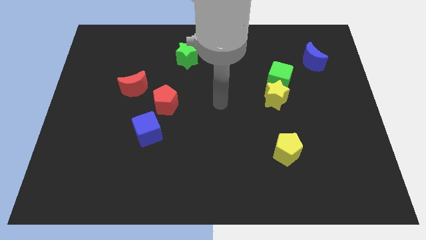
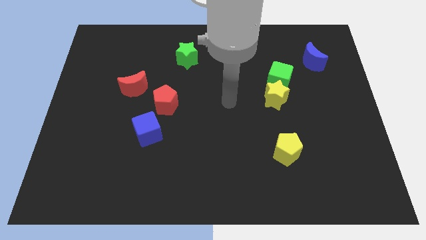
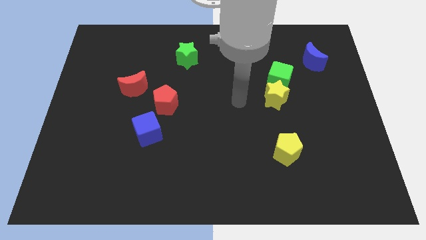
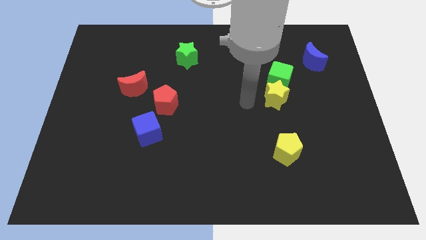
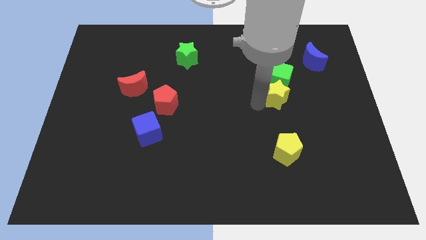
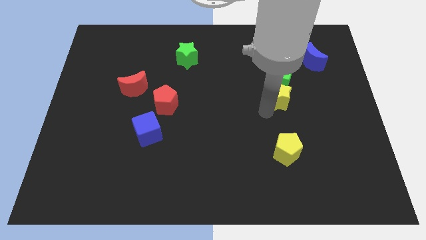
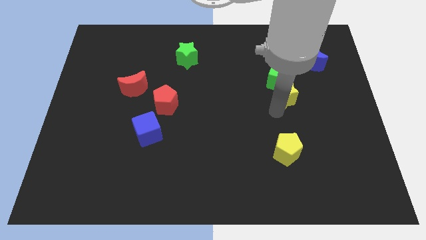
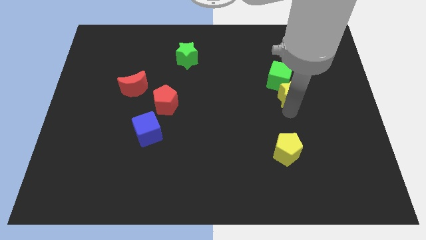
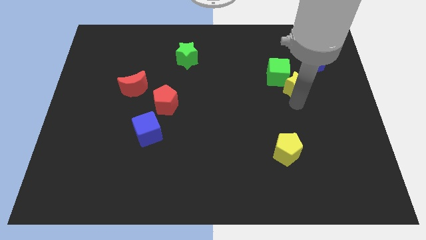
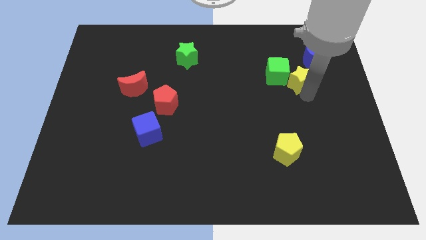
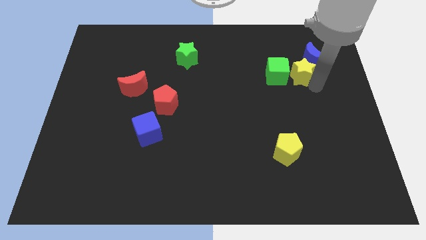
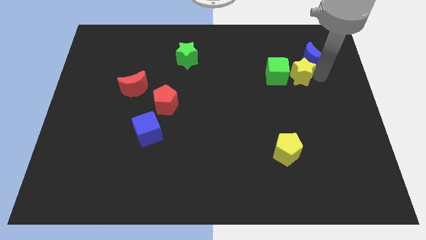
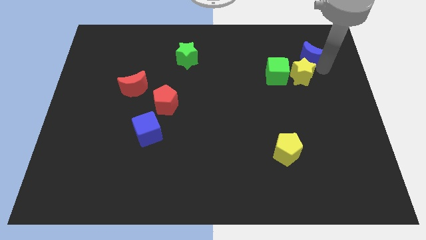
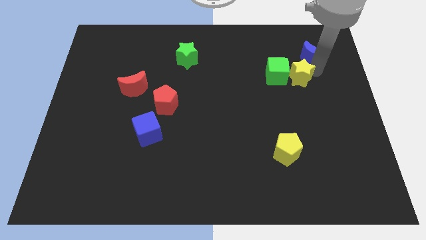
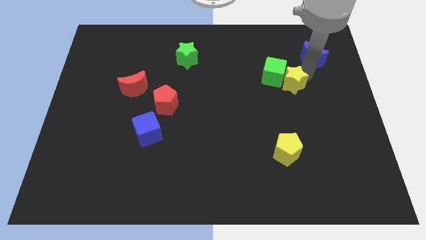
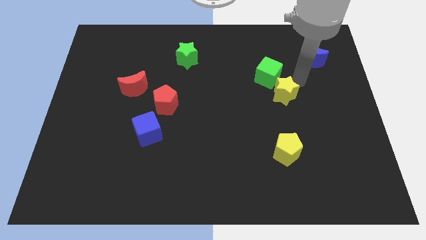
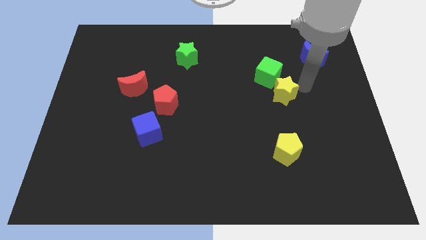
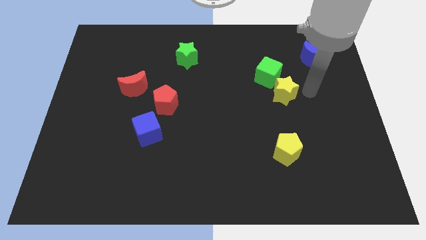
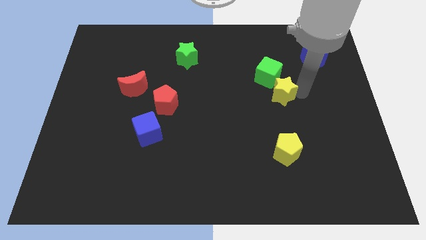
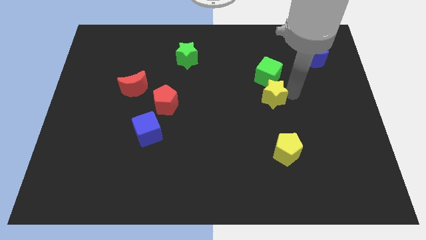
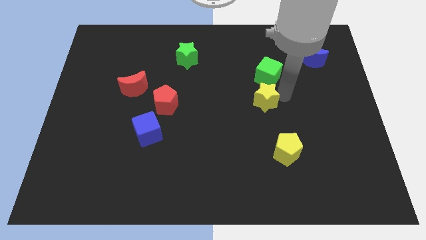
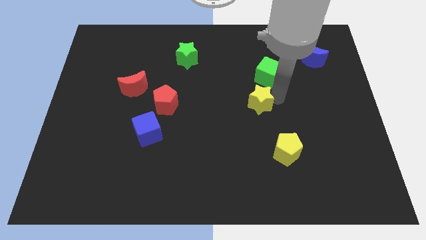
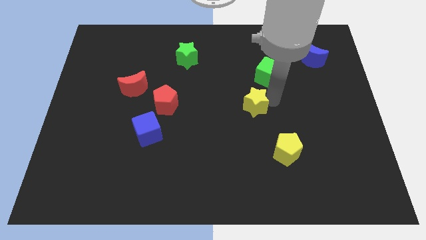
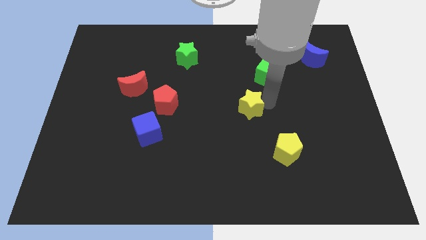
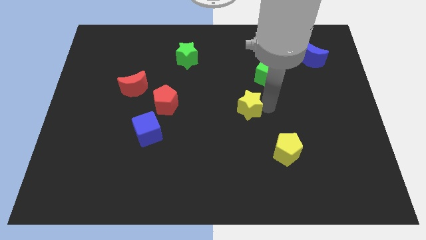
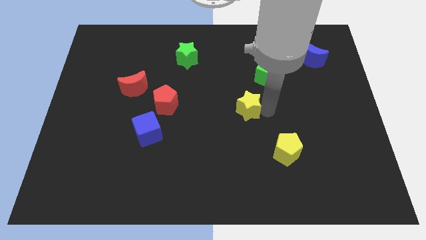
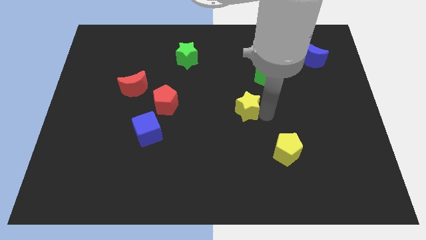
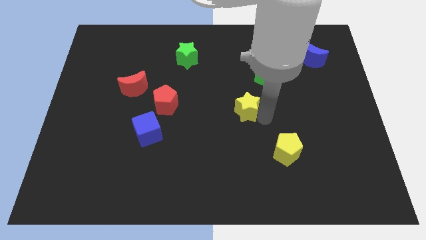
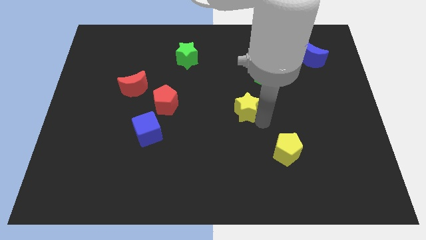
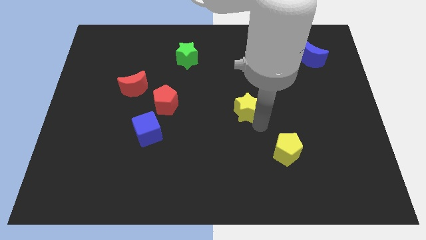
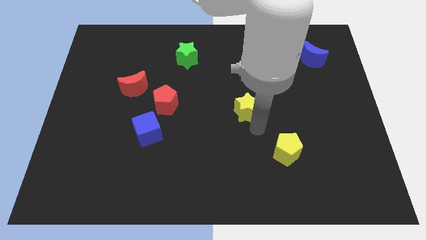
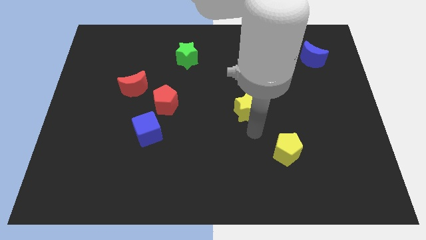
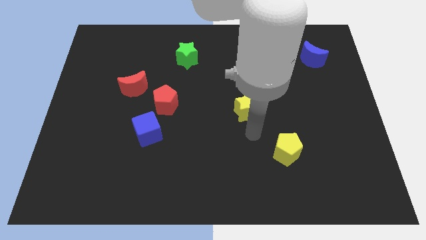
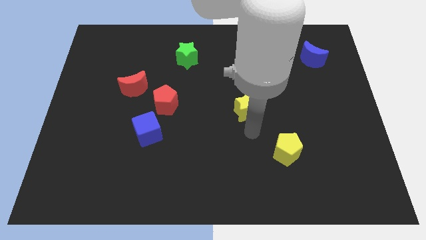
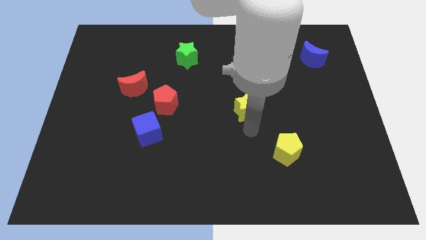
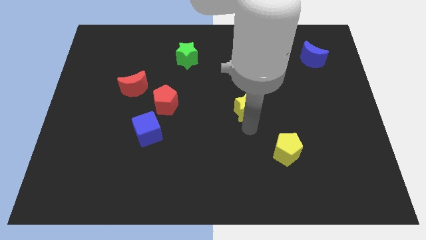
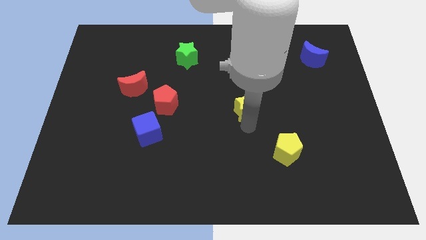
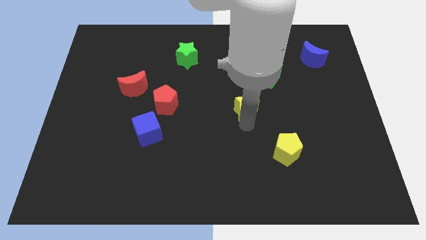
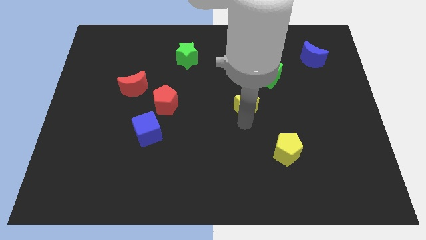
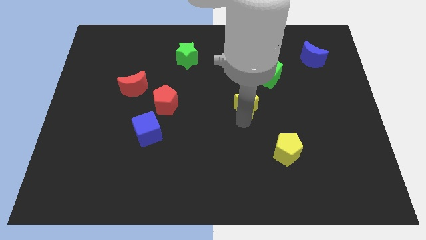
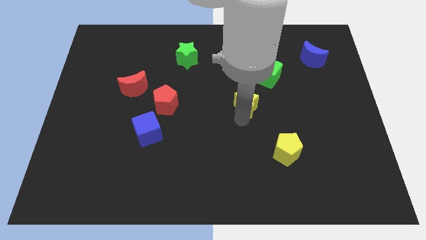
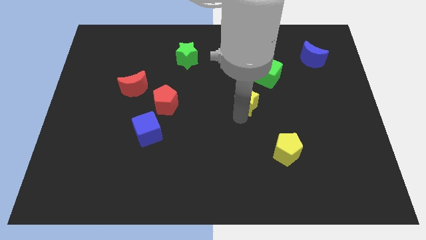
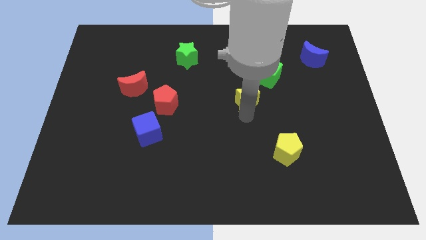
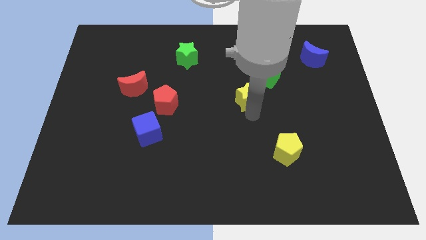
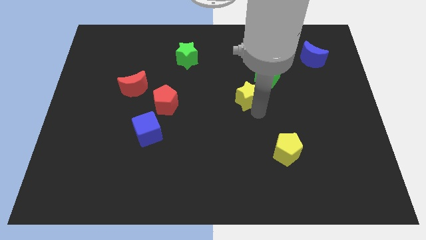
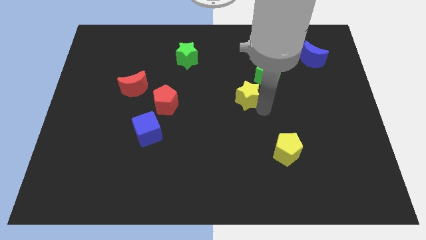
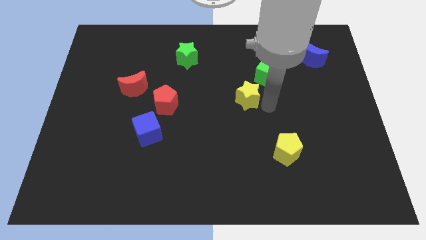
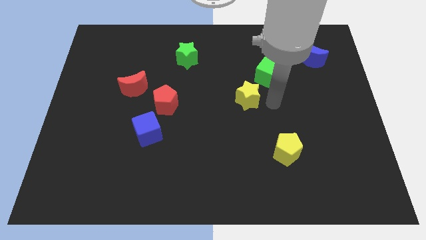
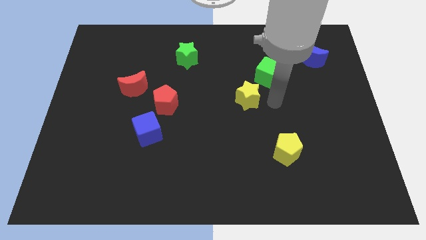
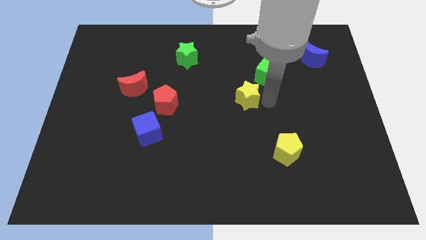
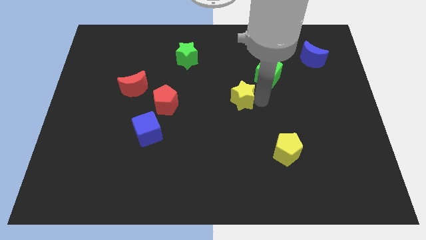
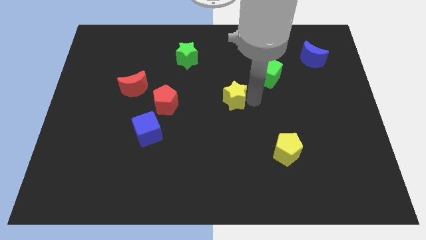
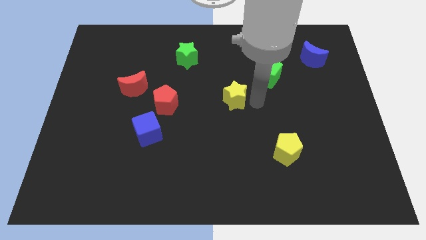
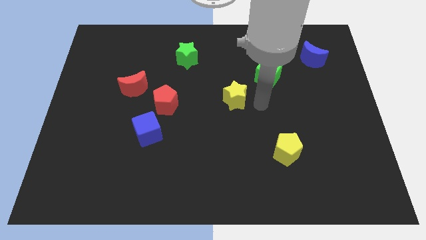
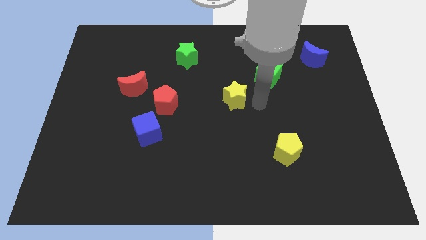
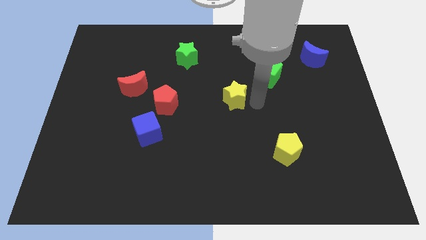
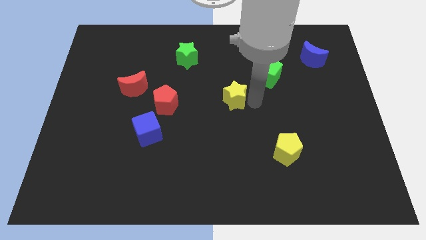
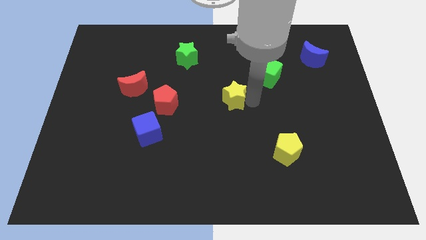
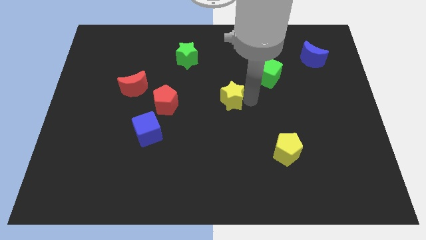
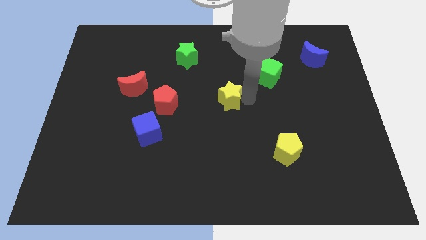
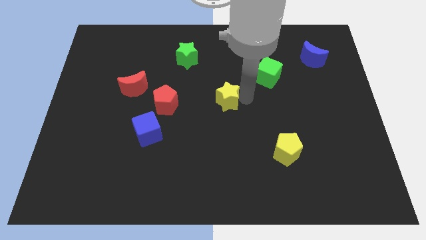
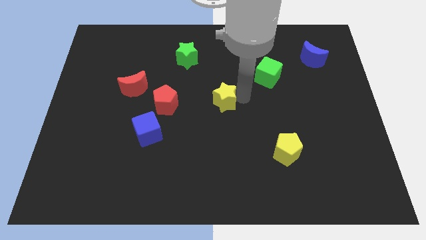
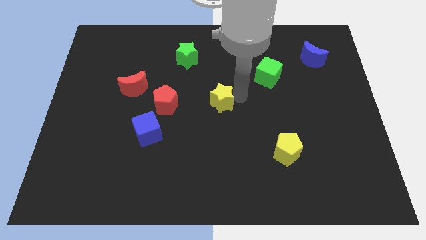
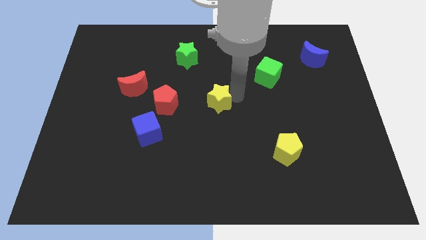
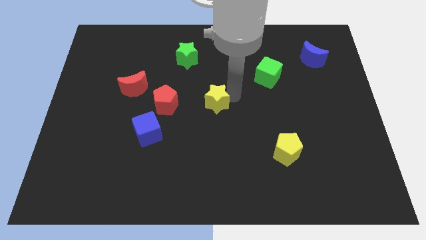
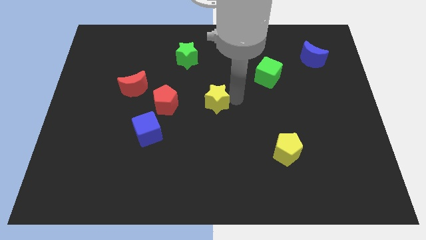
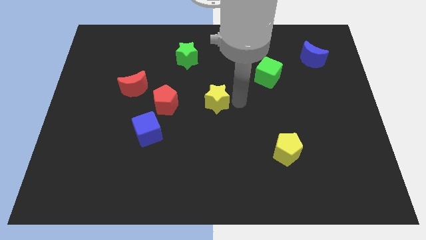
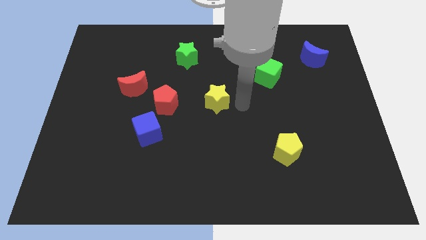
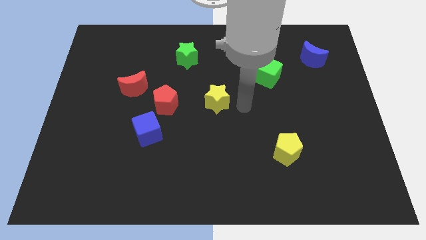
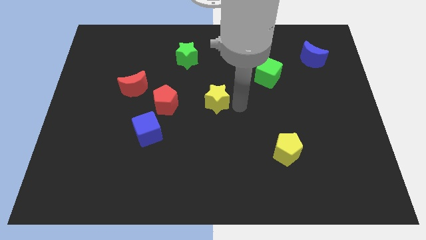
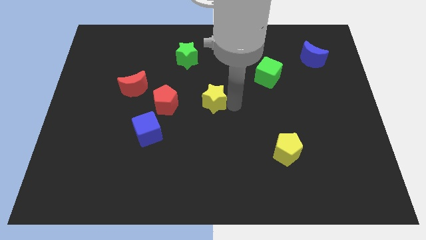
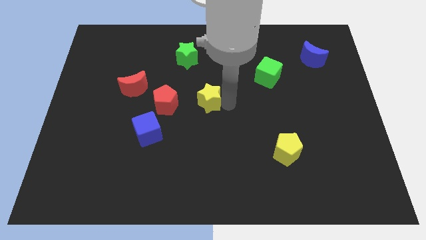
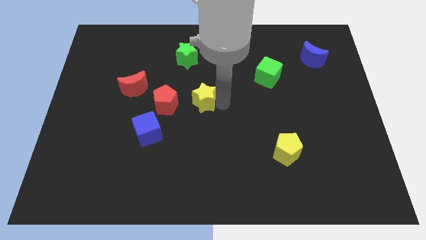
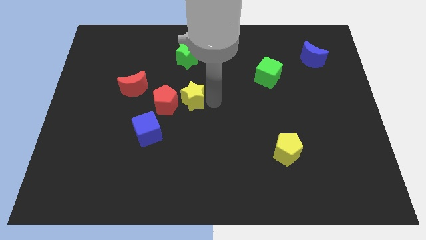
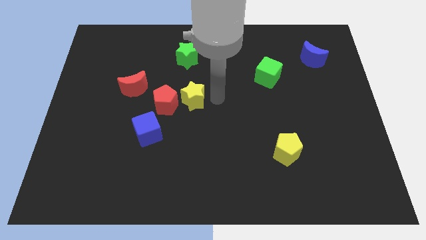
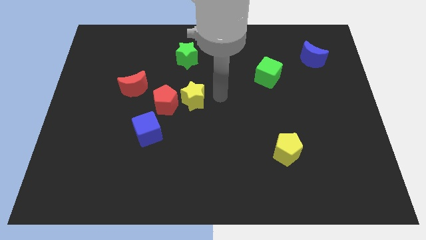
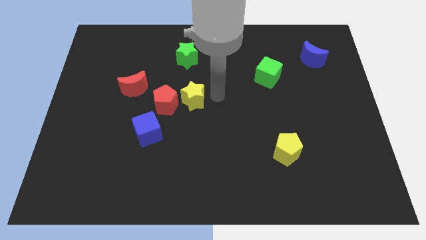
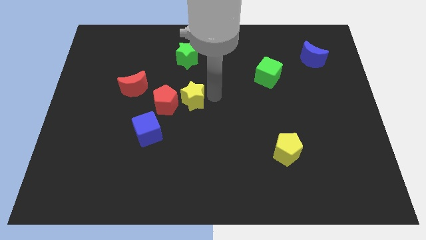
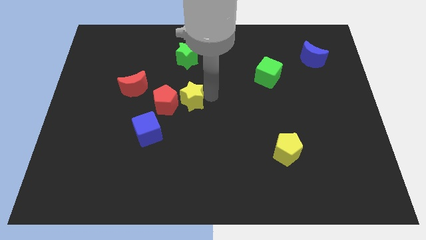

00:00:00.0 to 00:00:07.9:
move the yellow star next to the red pentagon
